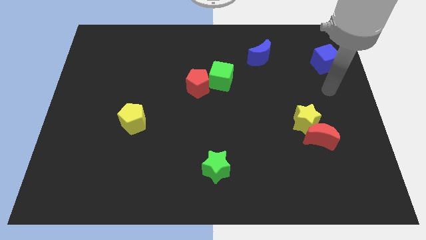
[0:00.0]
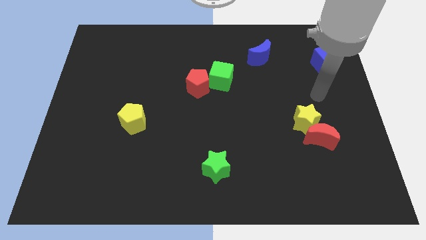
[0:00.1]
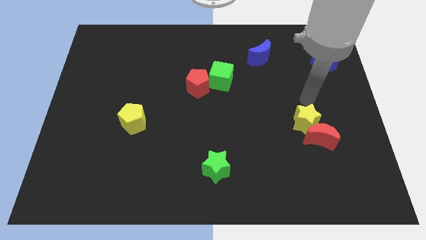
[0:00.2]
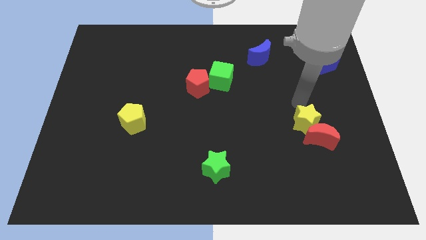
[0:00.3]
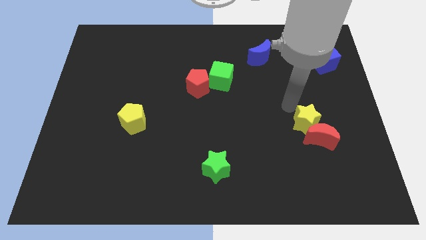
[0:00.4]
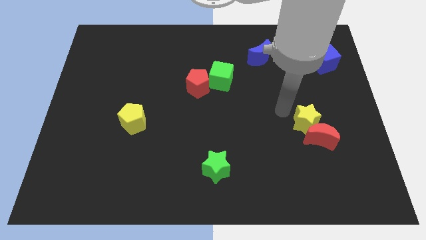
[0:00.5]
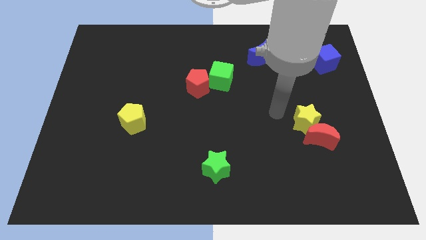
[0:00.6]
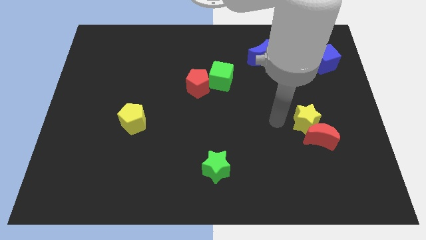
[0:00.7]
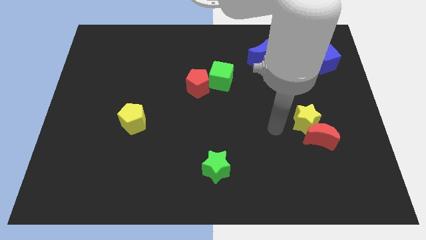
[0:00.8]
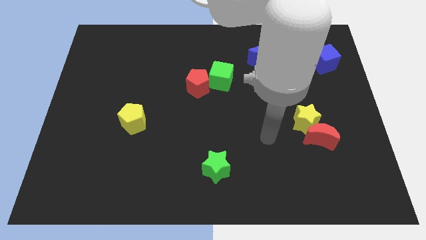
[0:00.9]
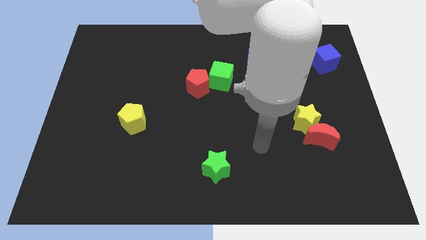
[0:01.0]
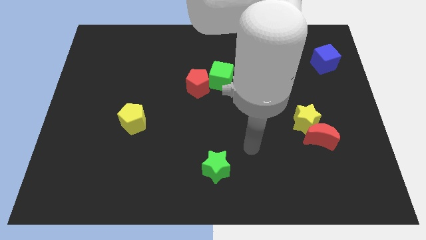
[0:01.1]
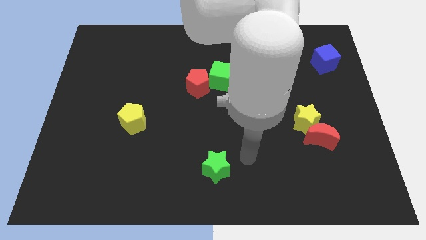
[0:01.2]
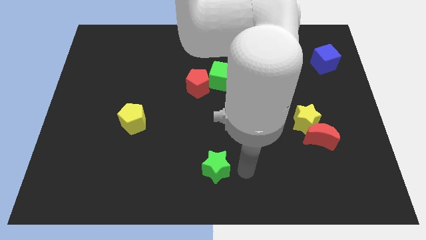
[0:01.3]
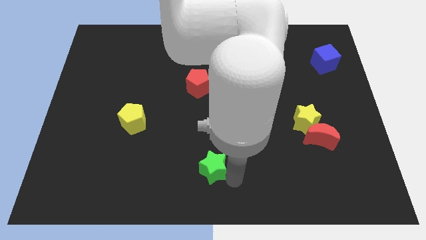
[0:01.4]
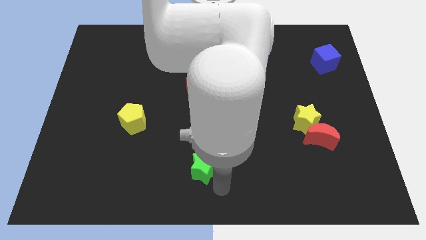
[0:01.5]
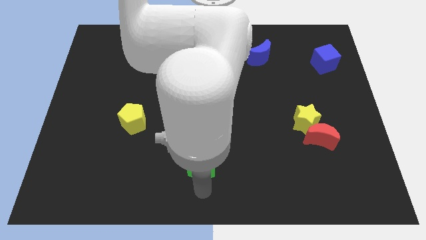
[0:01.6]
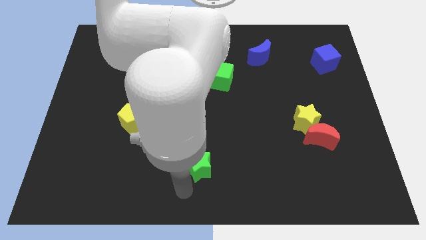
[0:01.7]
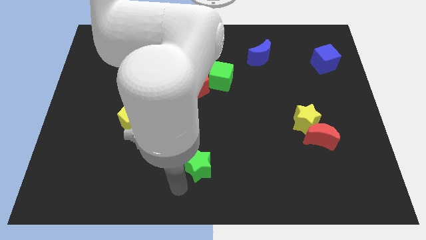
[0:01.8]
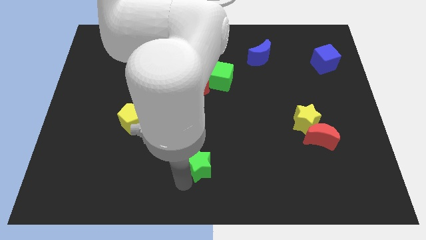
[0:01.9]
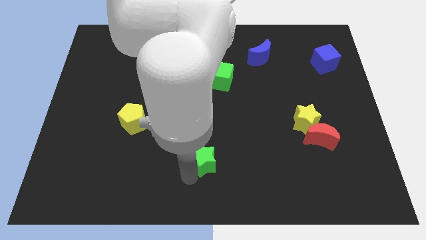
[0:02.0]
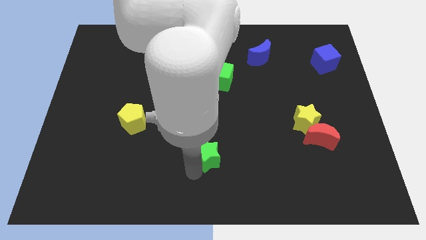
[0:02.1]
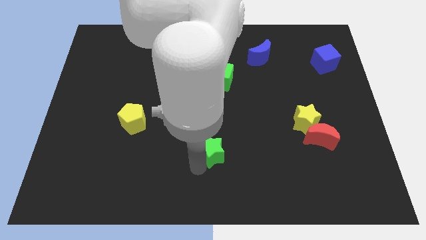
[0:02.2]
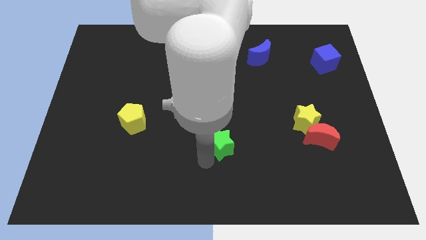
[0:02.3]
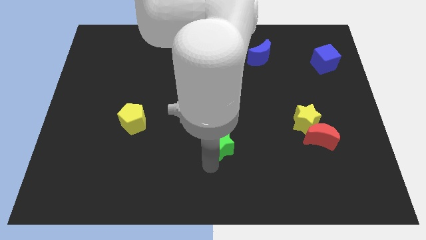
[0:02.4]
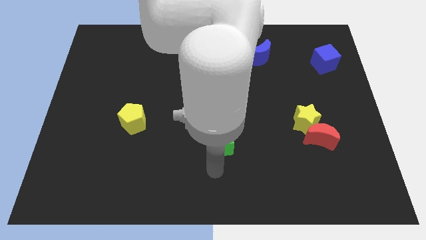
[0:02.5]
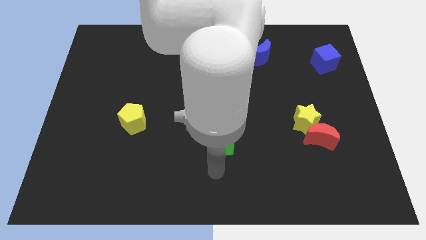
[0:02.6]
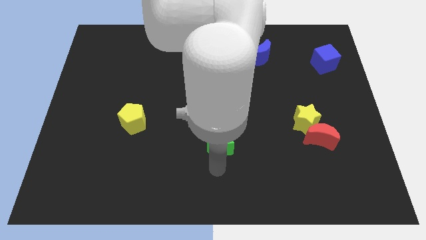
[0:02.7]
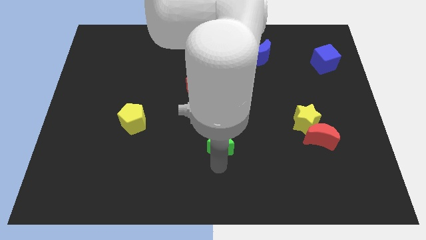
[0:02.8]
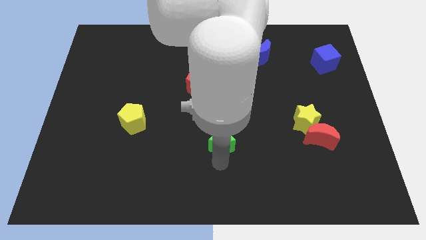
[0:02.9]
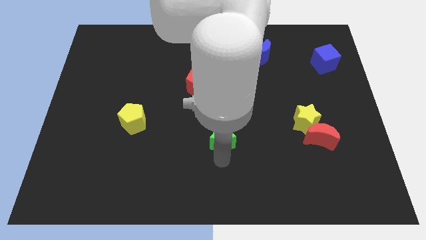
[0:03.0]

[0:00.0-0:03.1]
slightly move the green star up

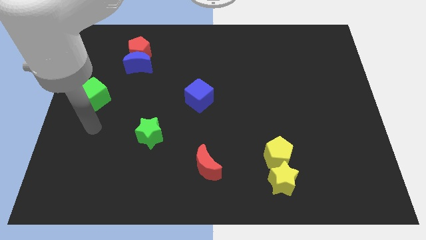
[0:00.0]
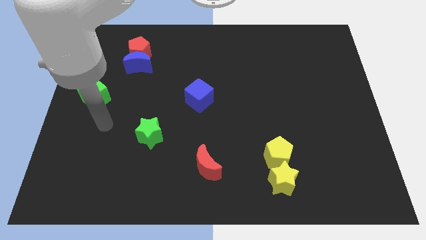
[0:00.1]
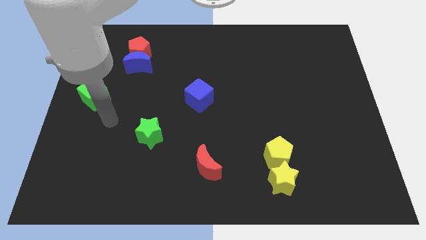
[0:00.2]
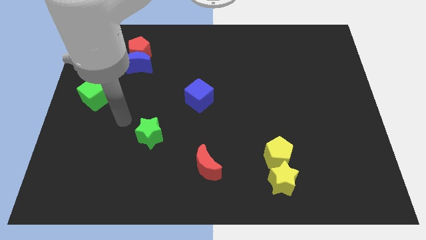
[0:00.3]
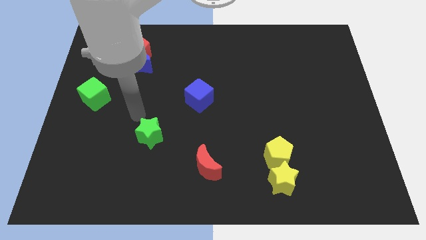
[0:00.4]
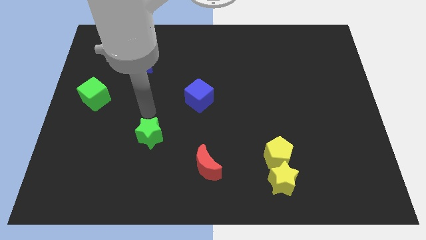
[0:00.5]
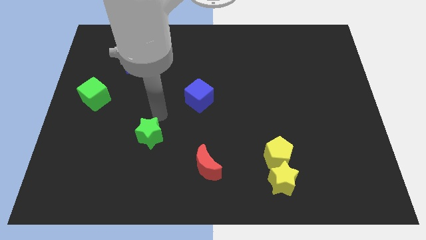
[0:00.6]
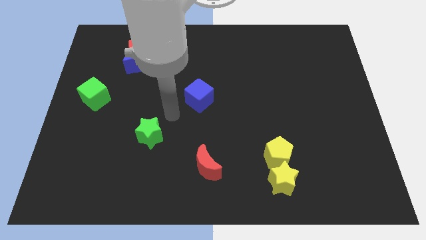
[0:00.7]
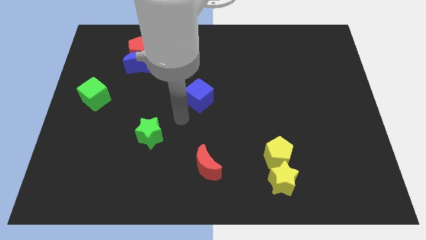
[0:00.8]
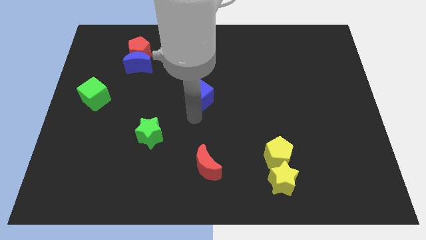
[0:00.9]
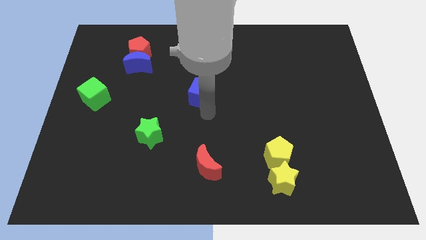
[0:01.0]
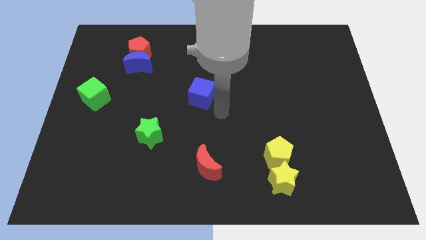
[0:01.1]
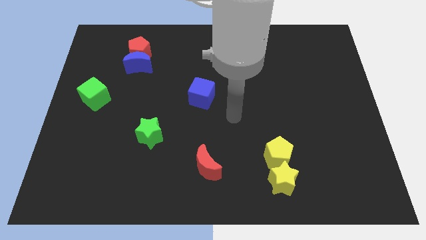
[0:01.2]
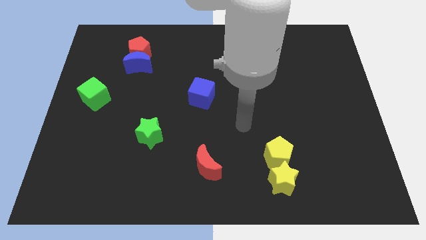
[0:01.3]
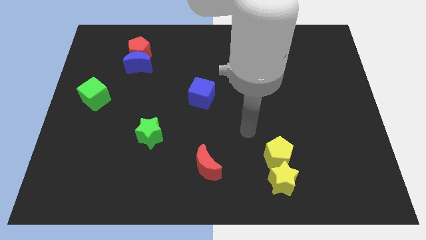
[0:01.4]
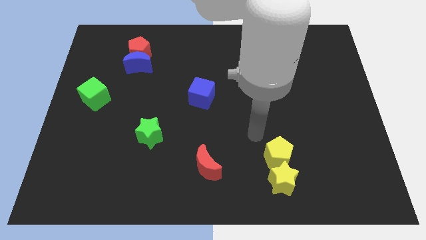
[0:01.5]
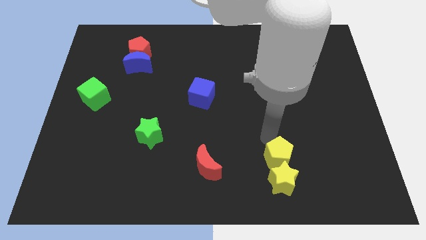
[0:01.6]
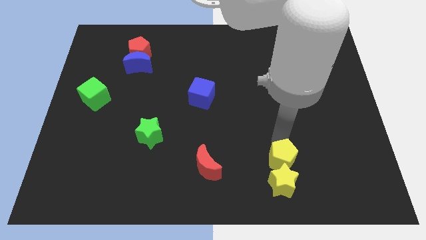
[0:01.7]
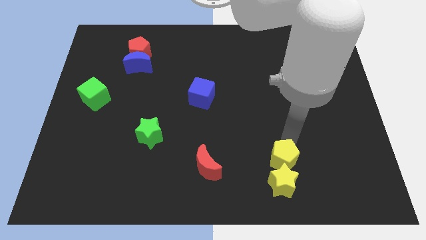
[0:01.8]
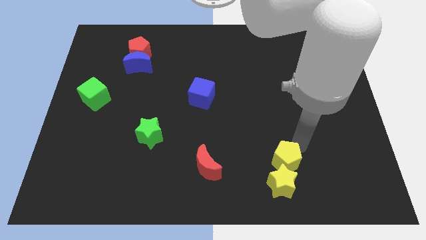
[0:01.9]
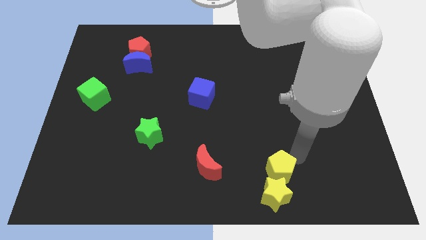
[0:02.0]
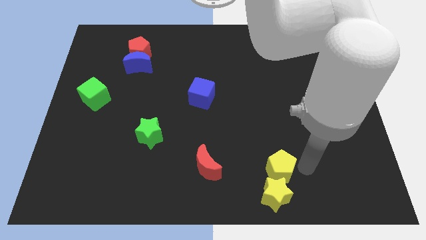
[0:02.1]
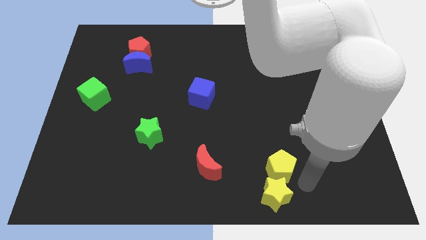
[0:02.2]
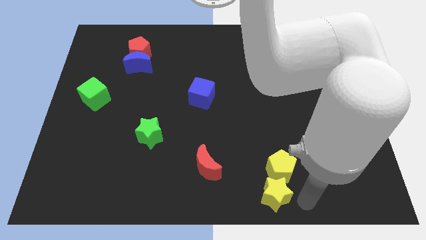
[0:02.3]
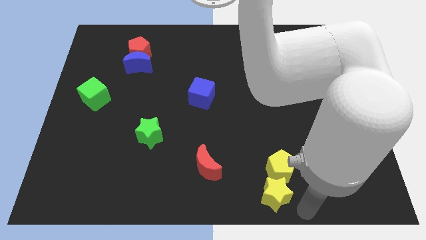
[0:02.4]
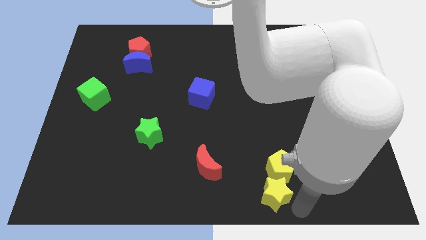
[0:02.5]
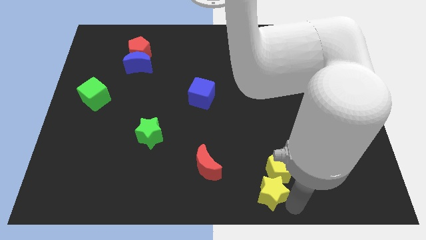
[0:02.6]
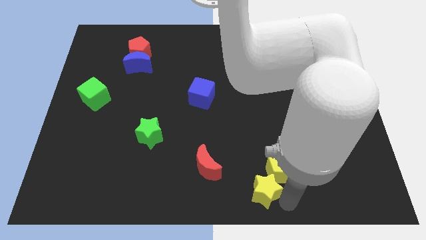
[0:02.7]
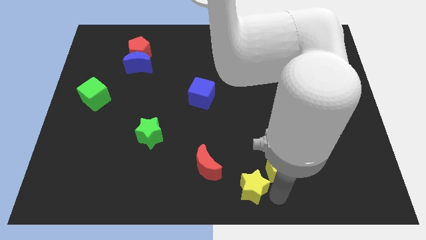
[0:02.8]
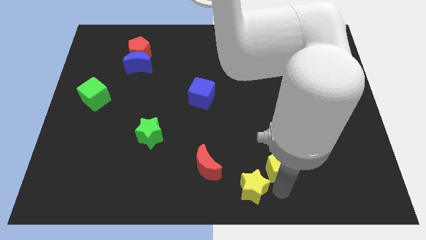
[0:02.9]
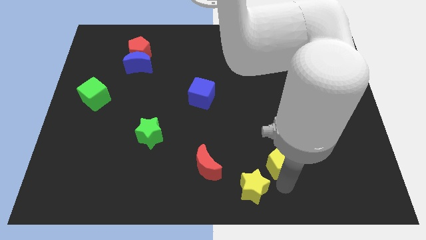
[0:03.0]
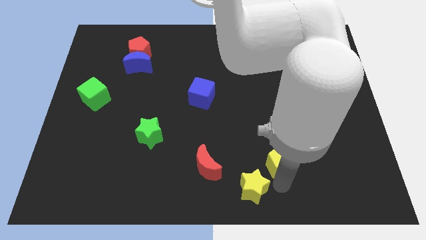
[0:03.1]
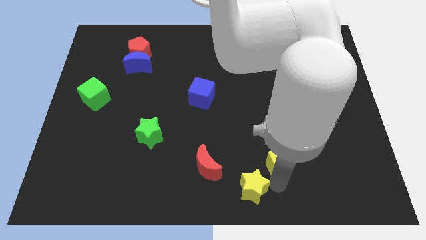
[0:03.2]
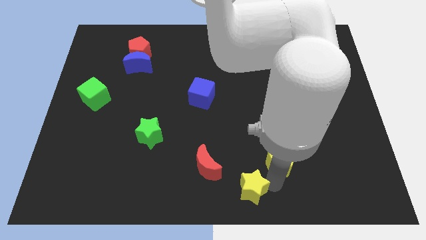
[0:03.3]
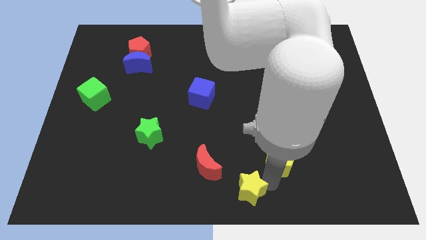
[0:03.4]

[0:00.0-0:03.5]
slide the yellow star a little left

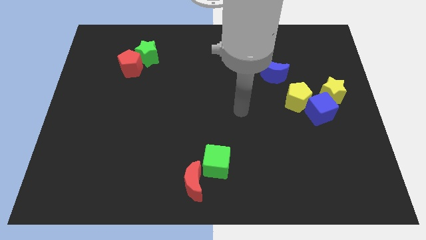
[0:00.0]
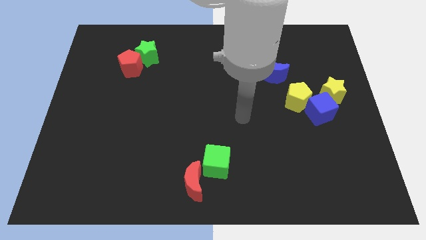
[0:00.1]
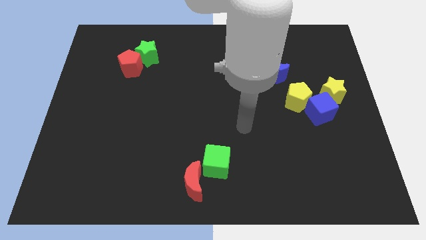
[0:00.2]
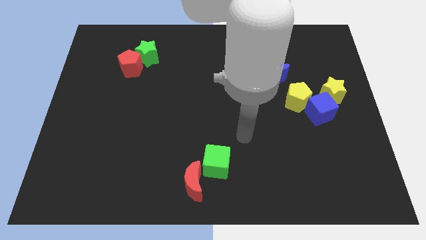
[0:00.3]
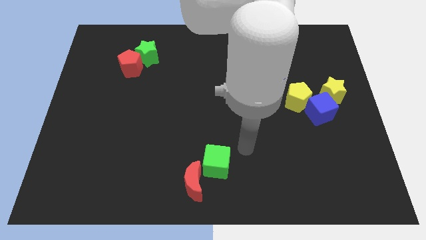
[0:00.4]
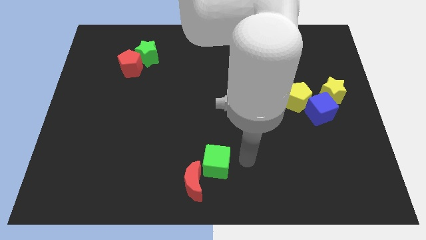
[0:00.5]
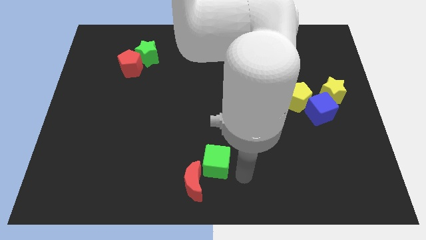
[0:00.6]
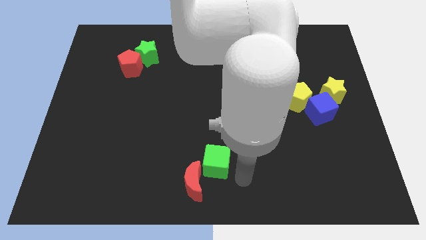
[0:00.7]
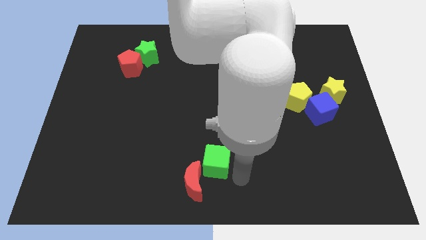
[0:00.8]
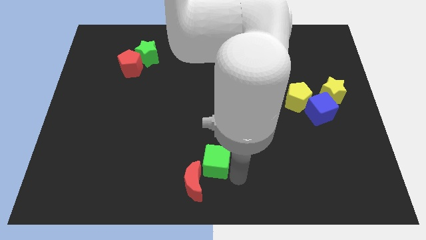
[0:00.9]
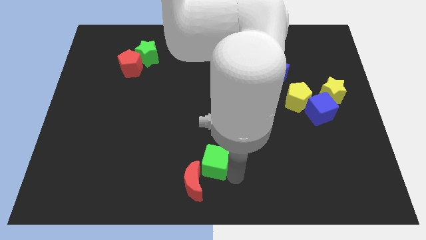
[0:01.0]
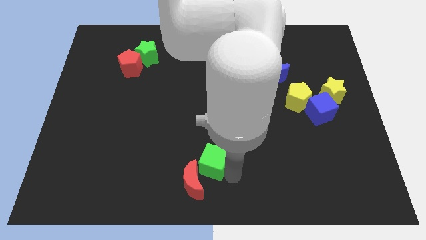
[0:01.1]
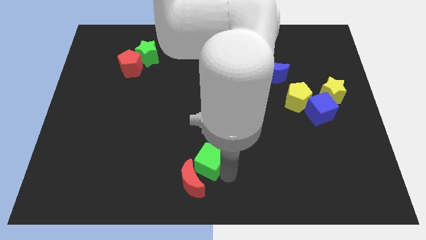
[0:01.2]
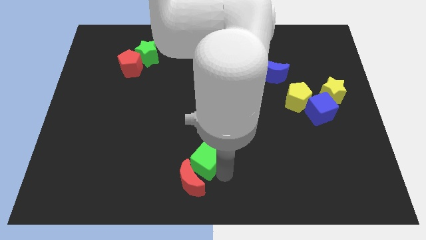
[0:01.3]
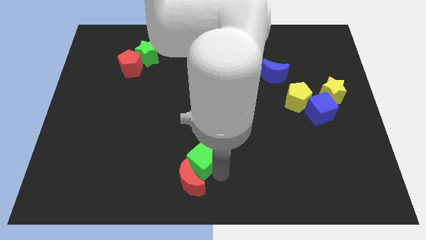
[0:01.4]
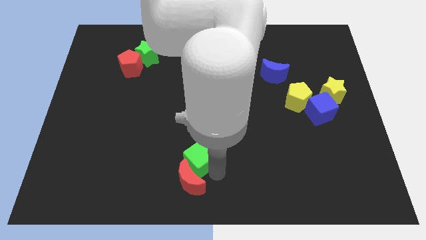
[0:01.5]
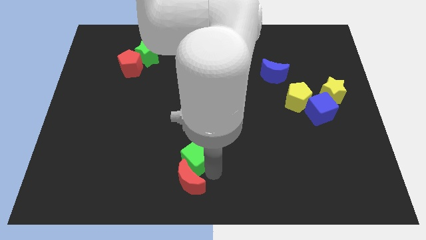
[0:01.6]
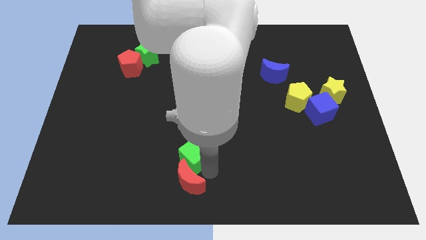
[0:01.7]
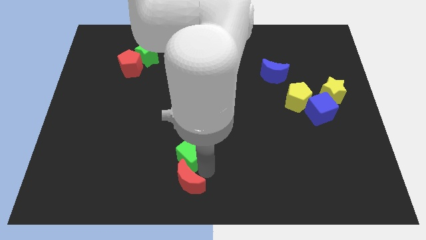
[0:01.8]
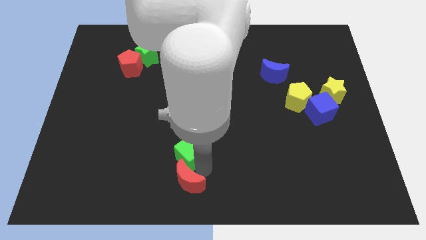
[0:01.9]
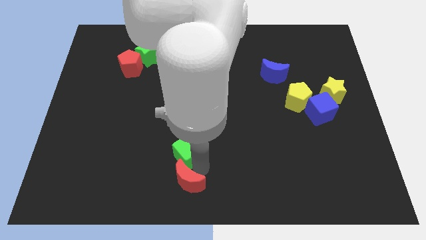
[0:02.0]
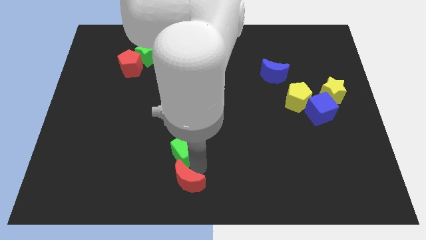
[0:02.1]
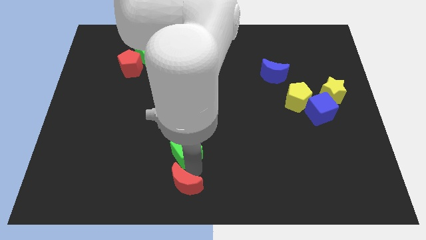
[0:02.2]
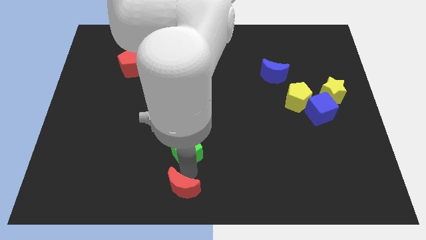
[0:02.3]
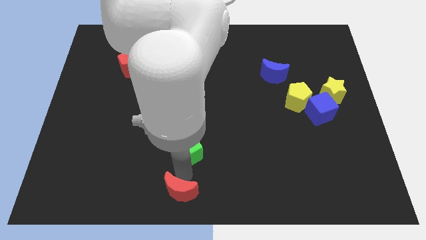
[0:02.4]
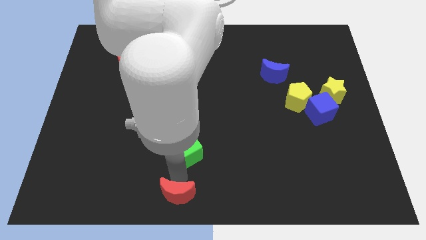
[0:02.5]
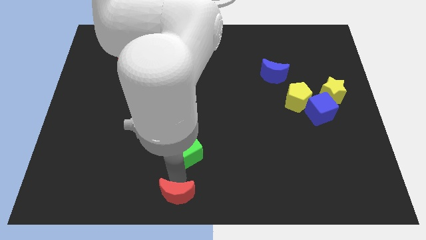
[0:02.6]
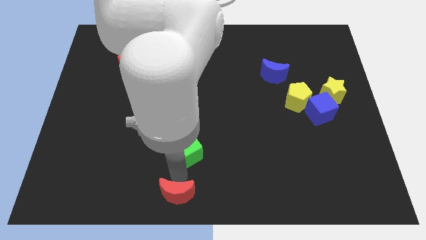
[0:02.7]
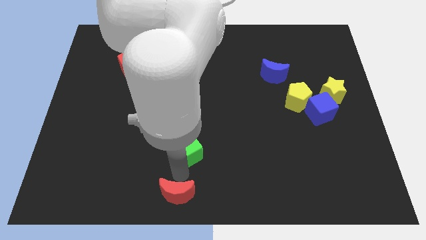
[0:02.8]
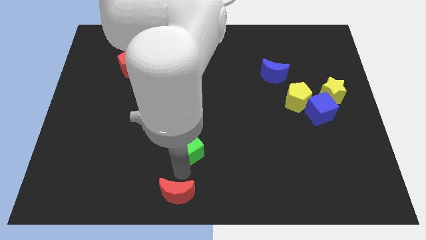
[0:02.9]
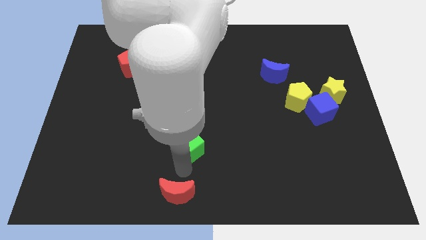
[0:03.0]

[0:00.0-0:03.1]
slide the green cube a bit up and to the left diagonally
